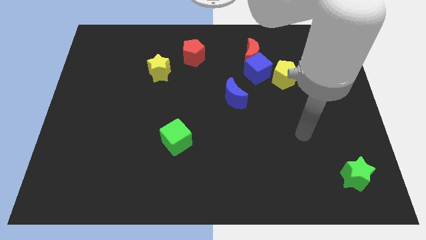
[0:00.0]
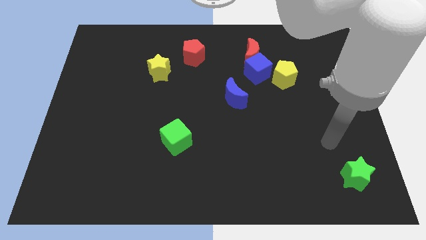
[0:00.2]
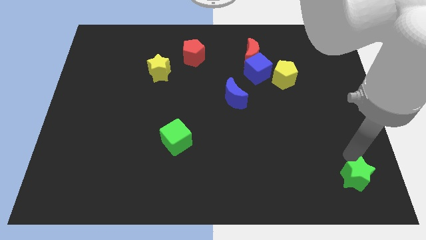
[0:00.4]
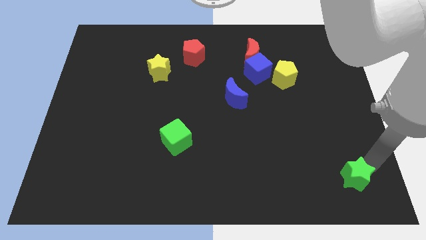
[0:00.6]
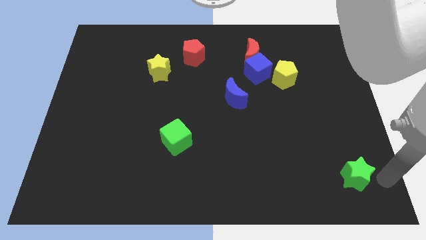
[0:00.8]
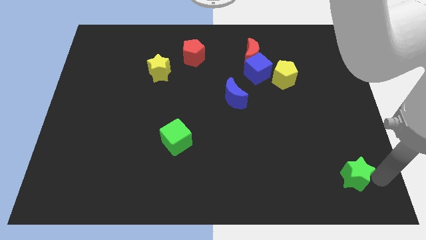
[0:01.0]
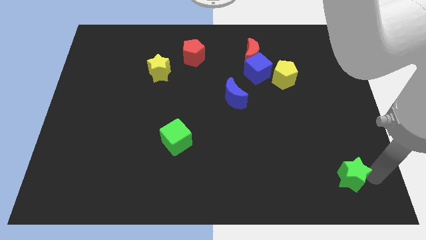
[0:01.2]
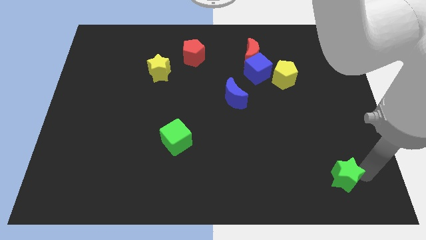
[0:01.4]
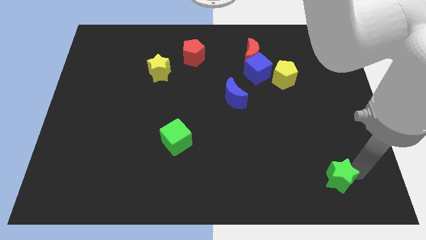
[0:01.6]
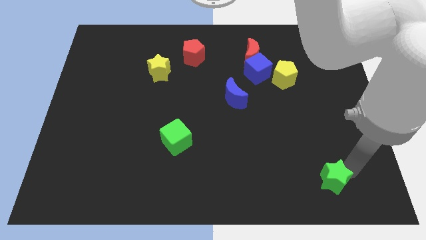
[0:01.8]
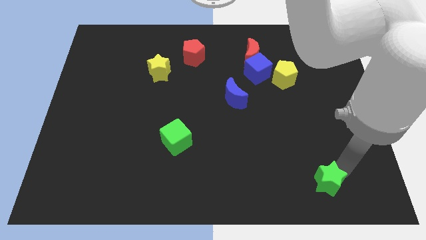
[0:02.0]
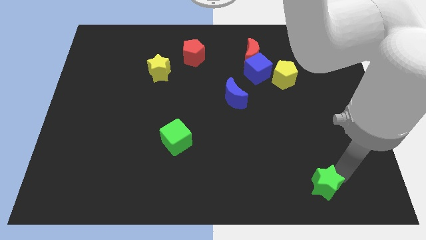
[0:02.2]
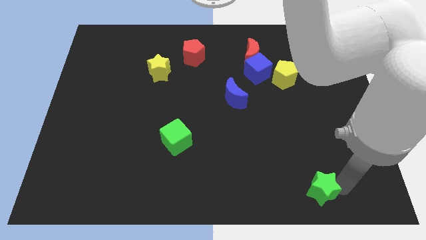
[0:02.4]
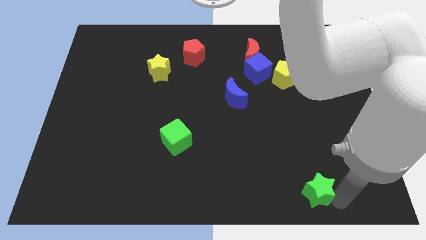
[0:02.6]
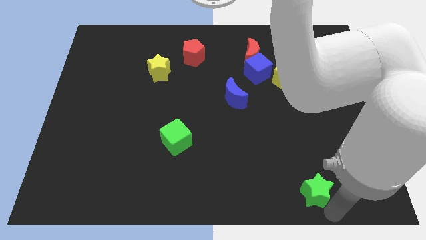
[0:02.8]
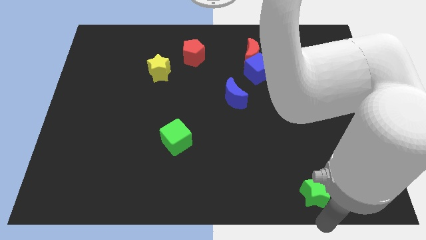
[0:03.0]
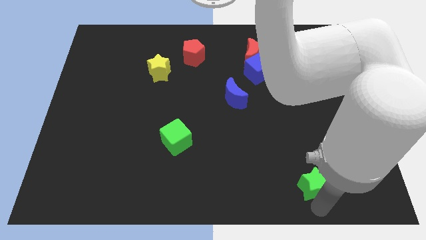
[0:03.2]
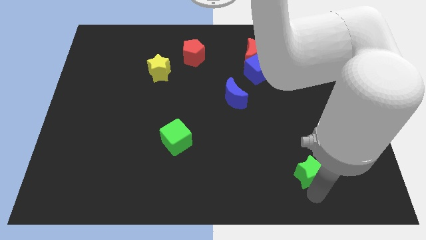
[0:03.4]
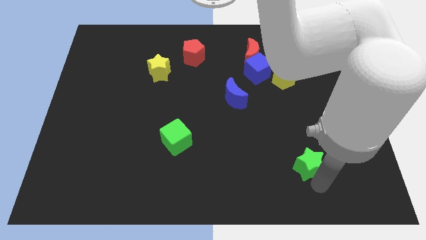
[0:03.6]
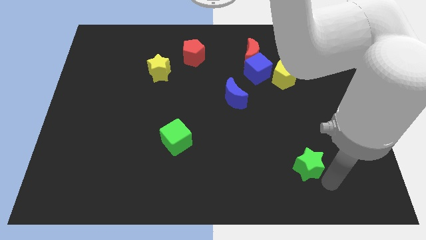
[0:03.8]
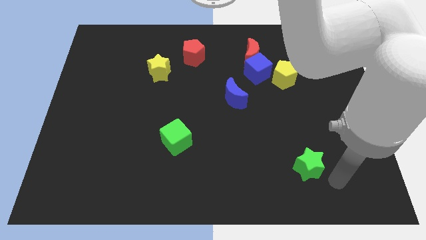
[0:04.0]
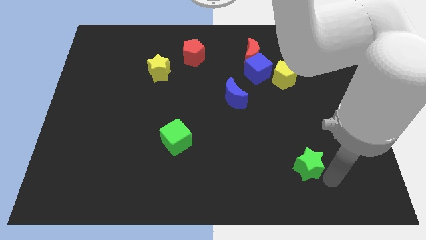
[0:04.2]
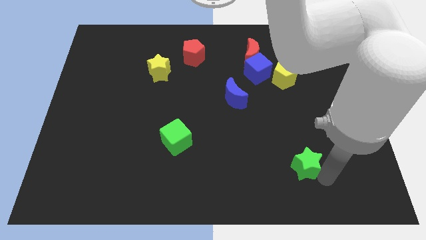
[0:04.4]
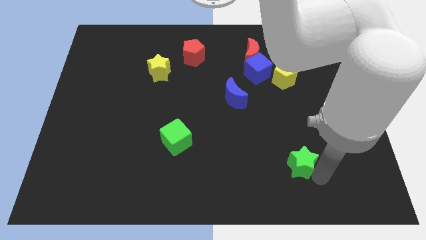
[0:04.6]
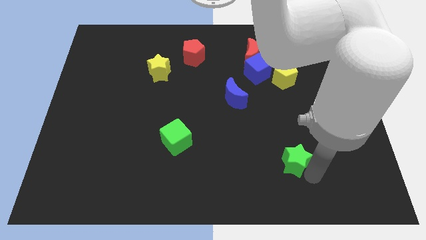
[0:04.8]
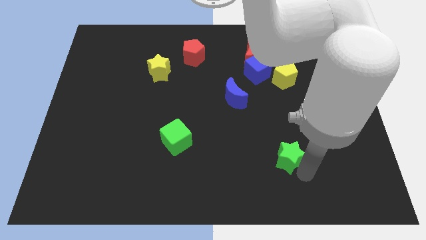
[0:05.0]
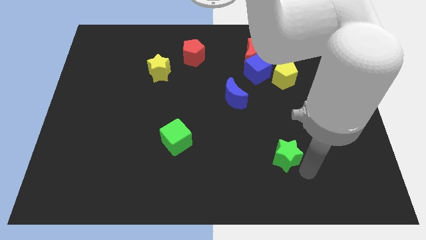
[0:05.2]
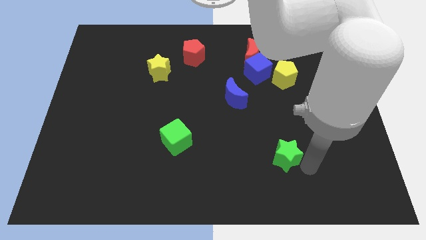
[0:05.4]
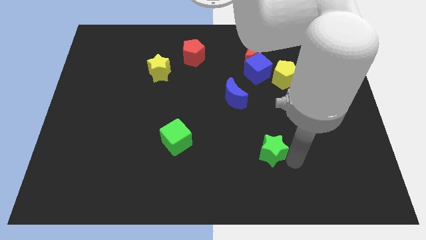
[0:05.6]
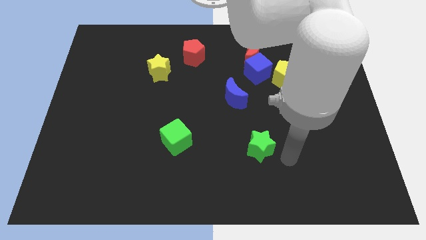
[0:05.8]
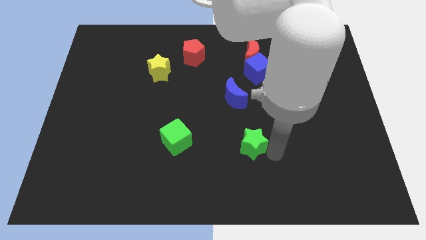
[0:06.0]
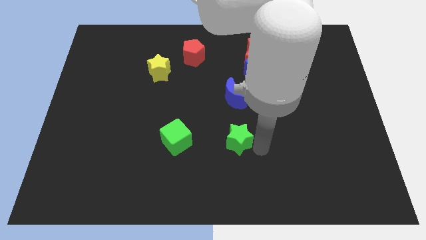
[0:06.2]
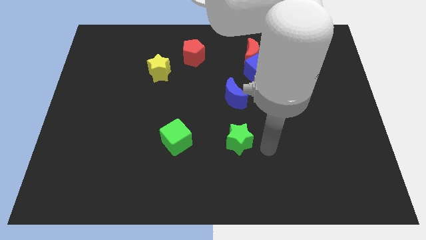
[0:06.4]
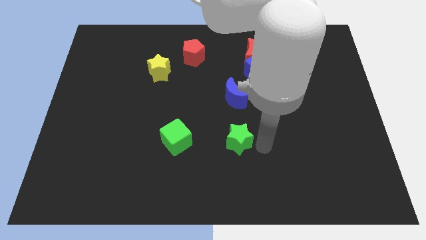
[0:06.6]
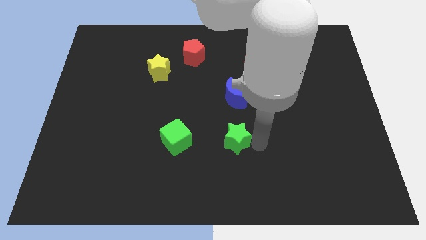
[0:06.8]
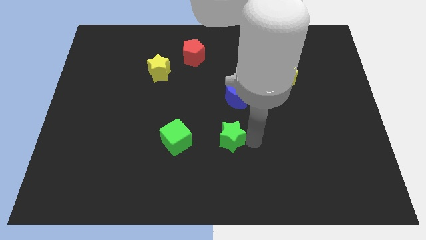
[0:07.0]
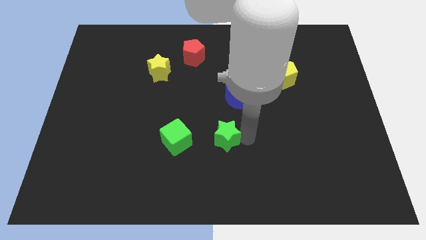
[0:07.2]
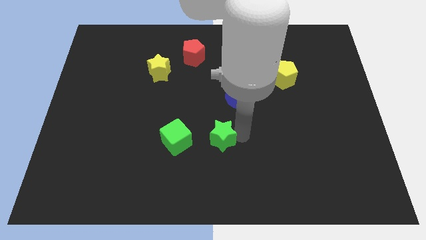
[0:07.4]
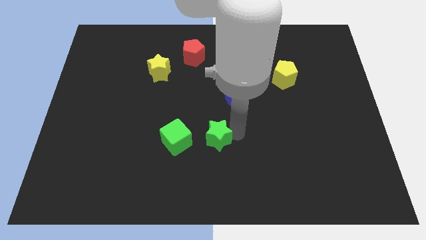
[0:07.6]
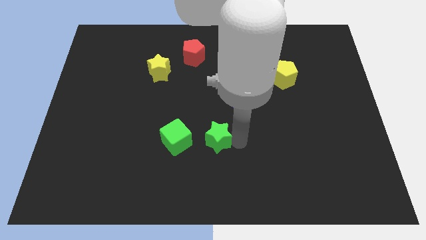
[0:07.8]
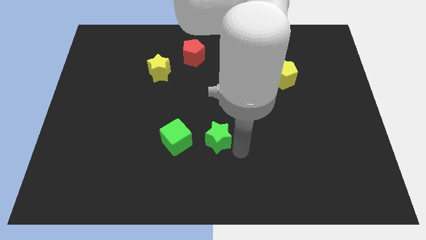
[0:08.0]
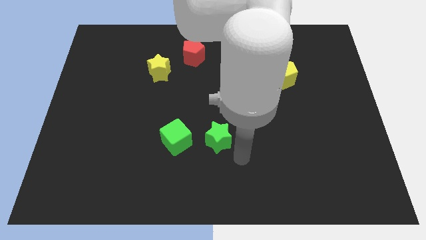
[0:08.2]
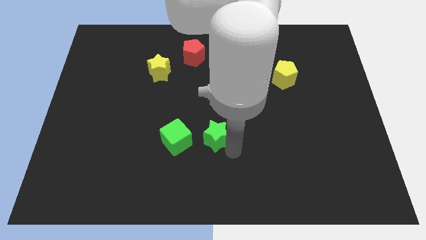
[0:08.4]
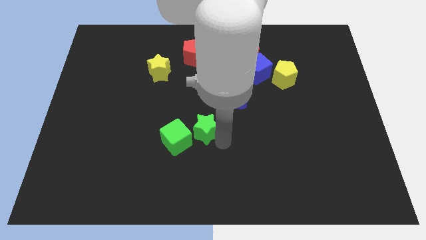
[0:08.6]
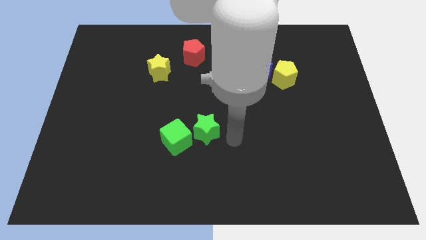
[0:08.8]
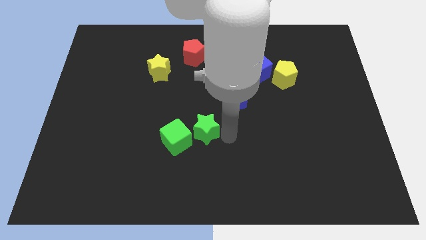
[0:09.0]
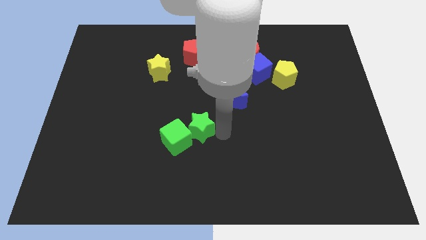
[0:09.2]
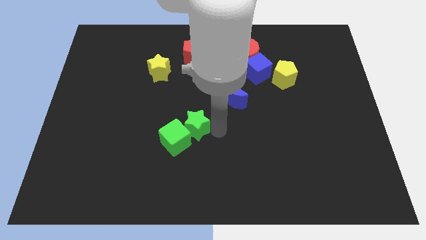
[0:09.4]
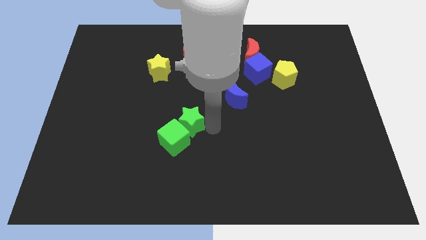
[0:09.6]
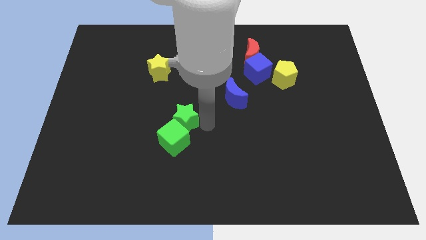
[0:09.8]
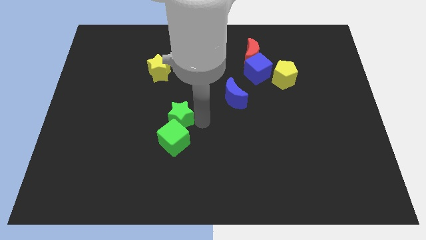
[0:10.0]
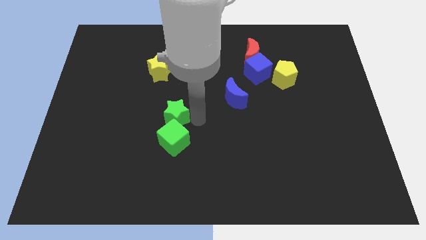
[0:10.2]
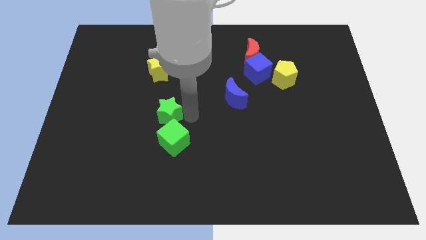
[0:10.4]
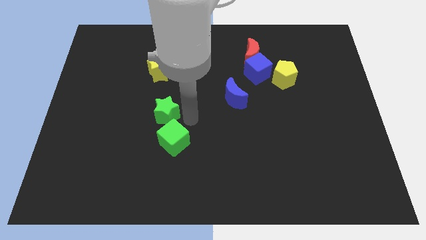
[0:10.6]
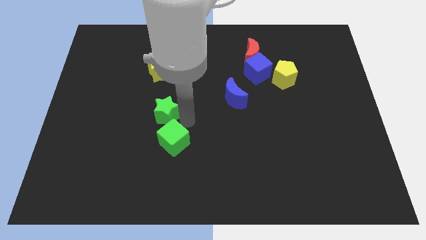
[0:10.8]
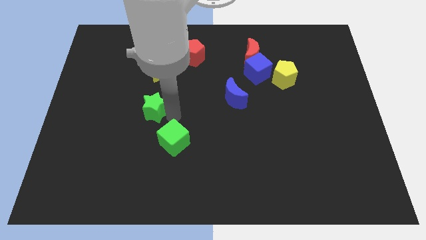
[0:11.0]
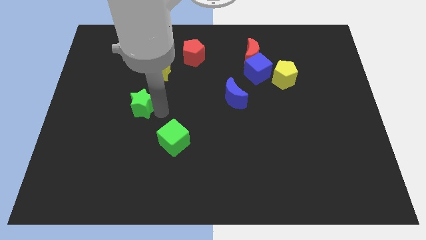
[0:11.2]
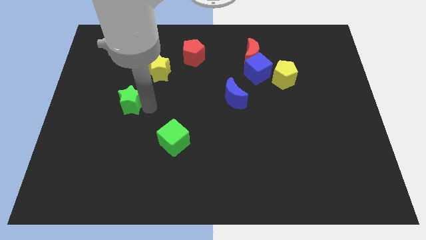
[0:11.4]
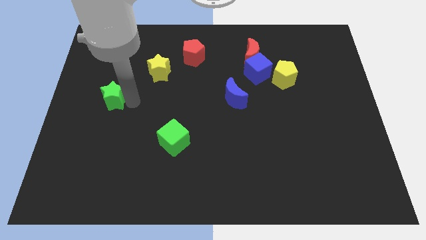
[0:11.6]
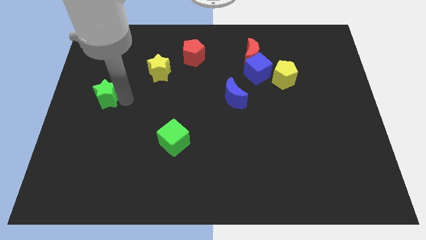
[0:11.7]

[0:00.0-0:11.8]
move the green star to the center left

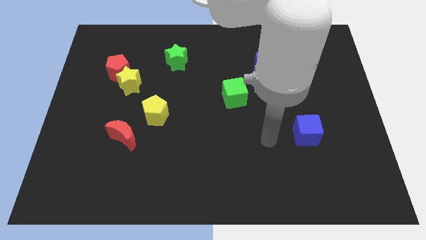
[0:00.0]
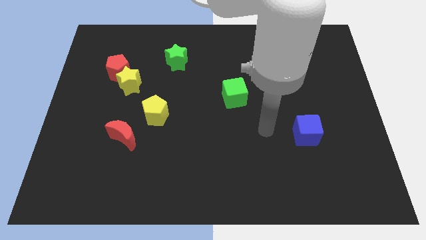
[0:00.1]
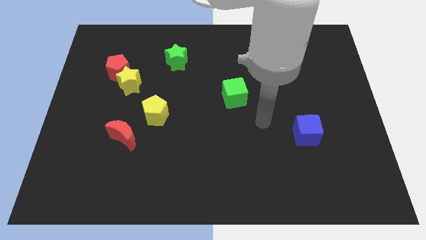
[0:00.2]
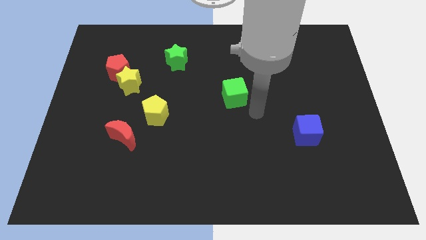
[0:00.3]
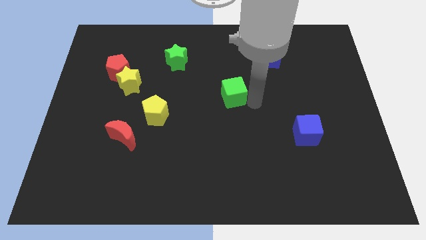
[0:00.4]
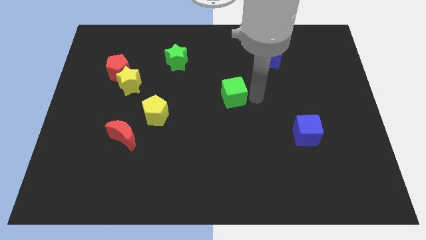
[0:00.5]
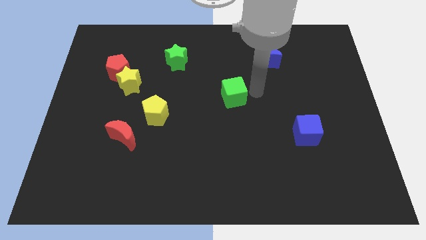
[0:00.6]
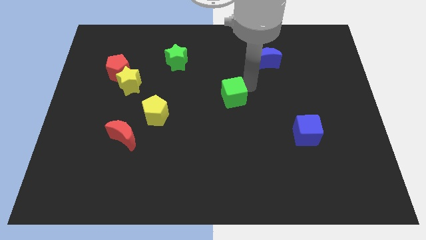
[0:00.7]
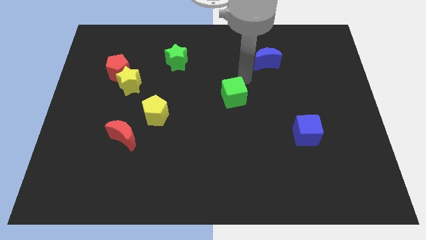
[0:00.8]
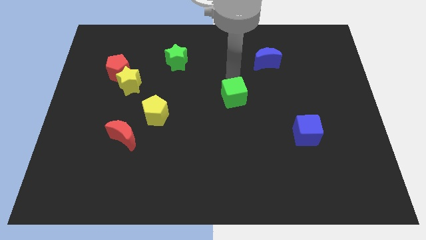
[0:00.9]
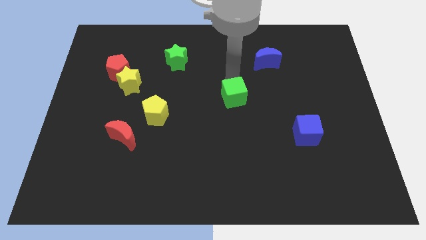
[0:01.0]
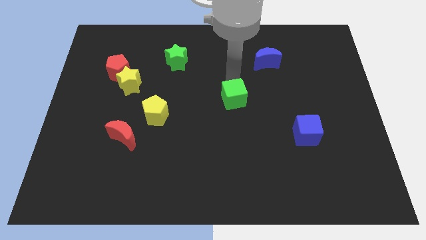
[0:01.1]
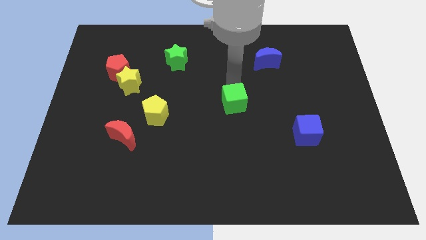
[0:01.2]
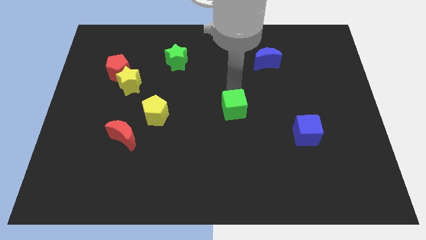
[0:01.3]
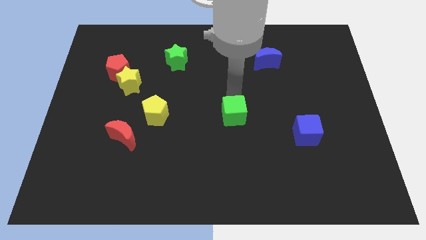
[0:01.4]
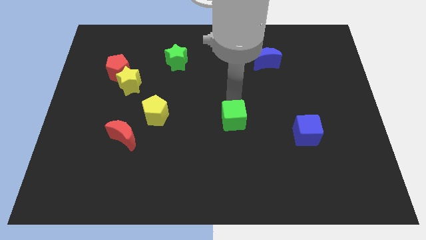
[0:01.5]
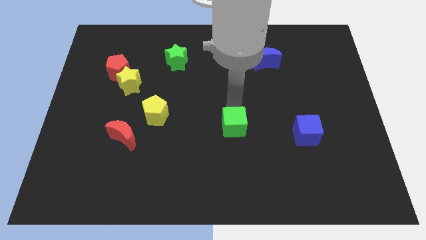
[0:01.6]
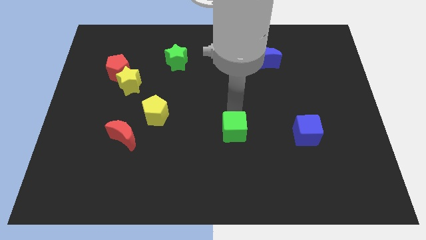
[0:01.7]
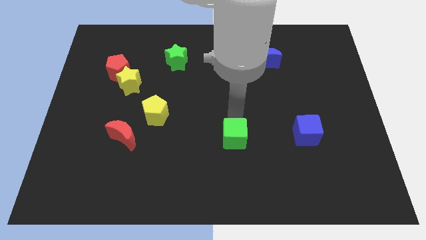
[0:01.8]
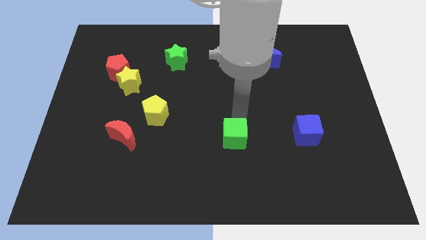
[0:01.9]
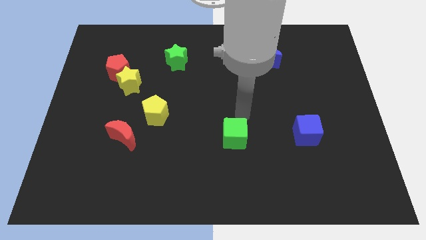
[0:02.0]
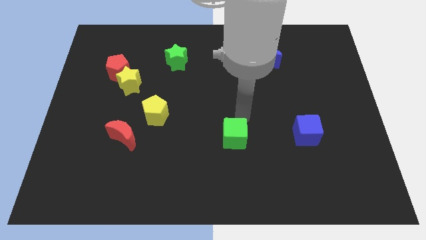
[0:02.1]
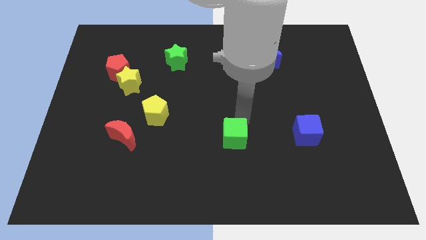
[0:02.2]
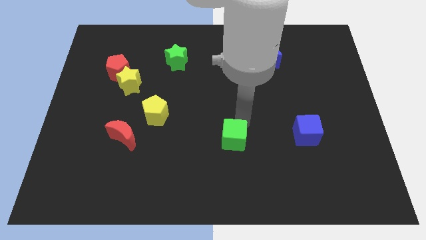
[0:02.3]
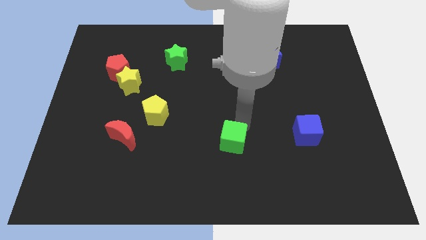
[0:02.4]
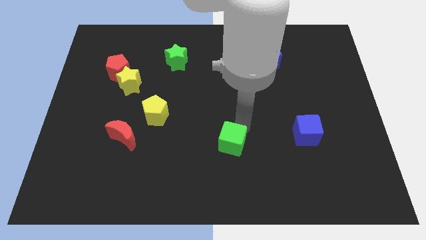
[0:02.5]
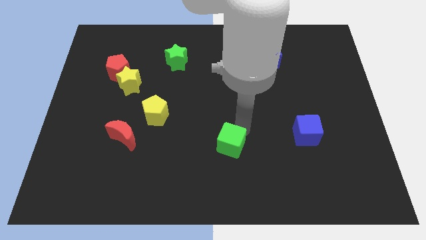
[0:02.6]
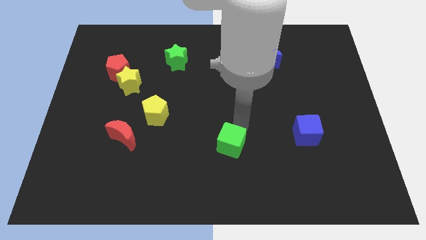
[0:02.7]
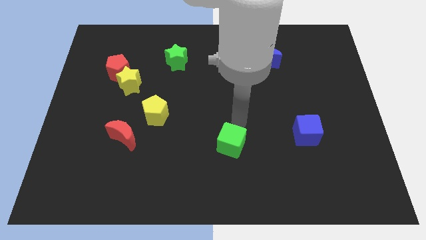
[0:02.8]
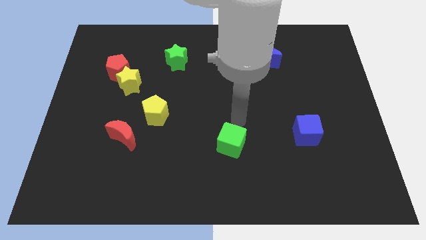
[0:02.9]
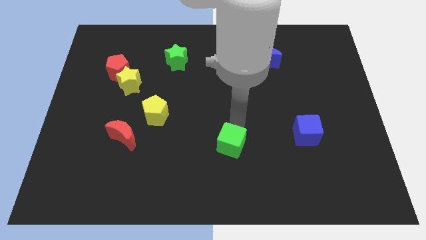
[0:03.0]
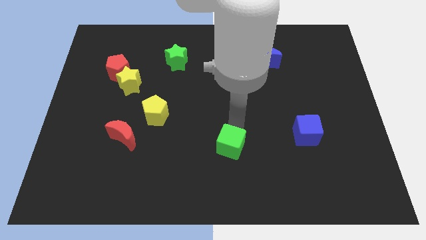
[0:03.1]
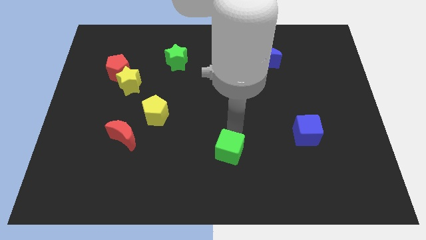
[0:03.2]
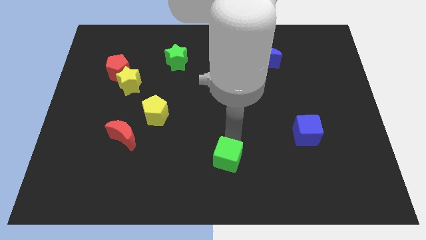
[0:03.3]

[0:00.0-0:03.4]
move the green cube to the bottom side
